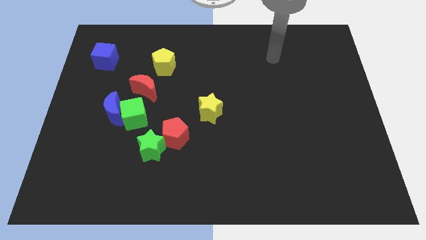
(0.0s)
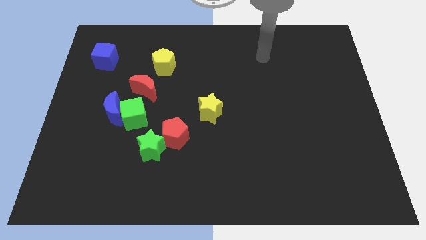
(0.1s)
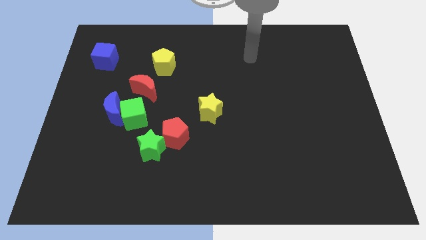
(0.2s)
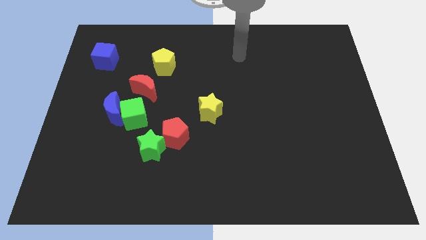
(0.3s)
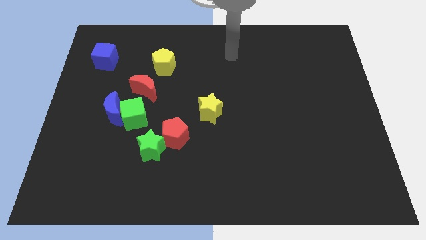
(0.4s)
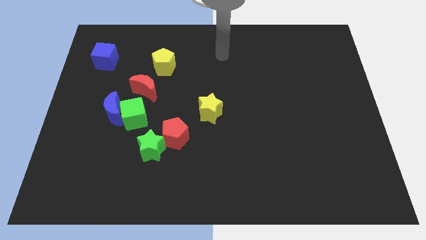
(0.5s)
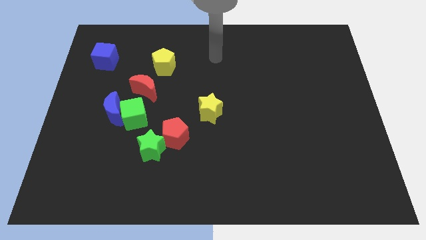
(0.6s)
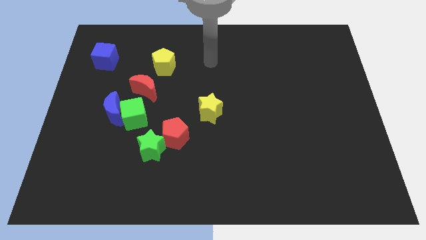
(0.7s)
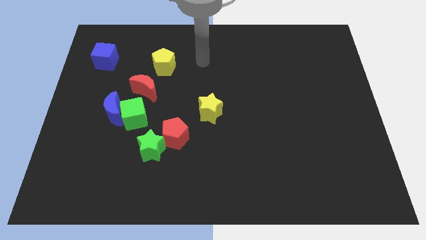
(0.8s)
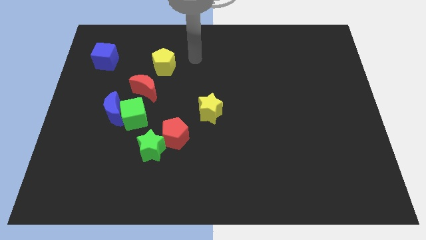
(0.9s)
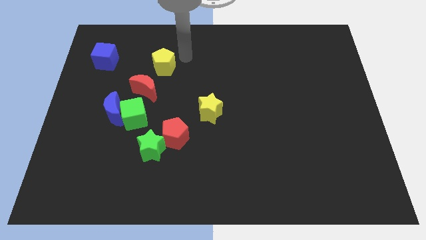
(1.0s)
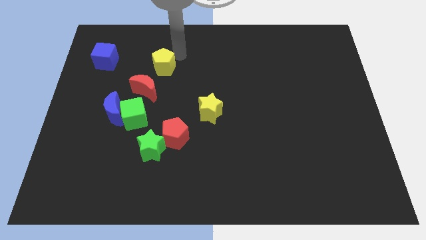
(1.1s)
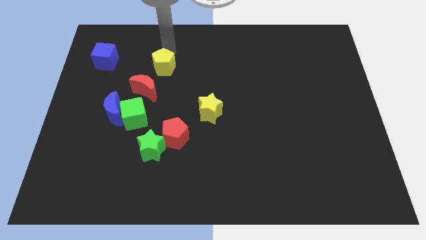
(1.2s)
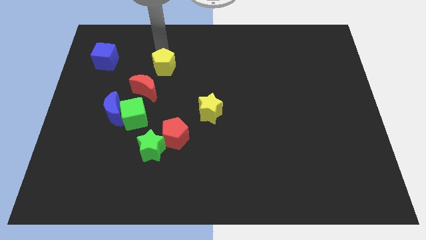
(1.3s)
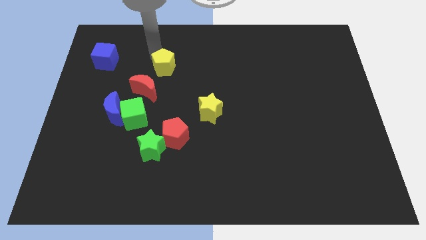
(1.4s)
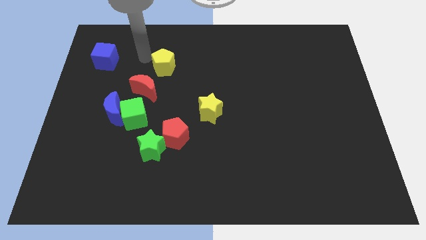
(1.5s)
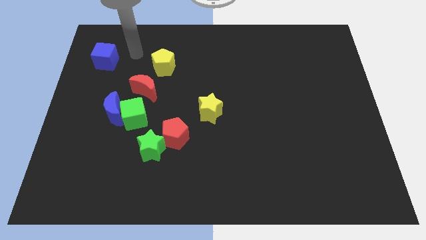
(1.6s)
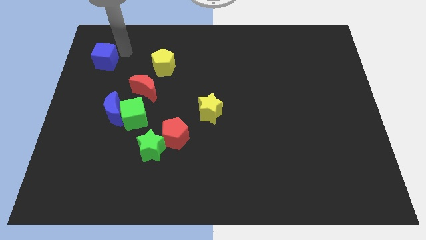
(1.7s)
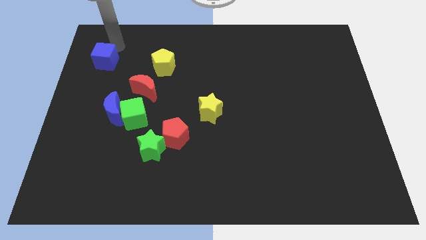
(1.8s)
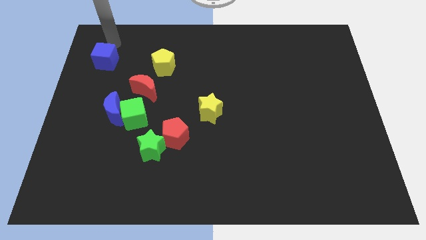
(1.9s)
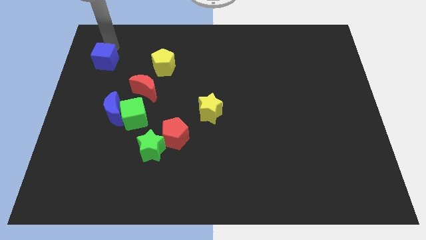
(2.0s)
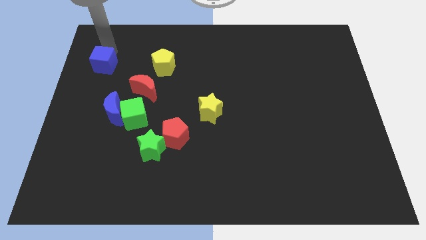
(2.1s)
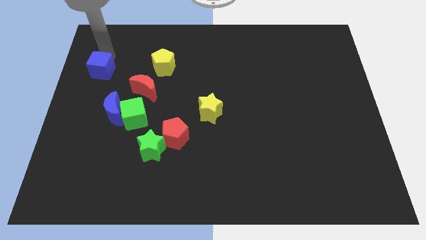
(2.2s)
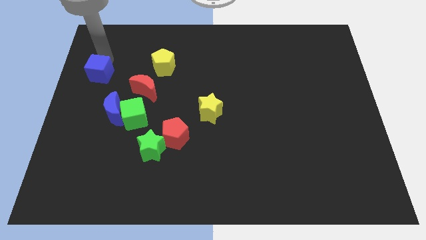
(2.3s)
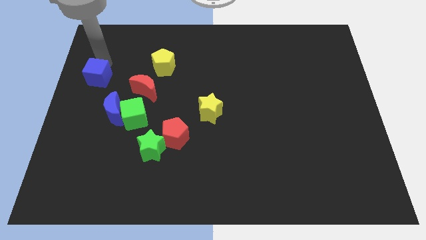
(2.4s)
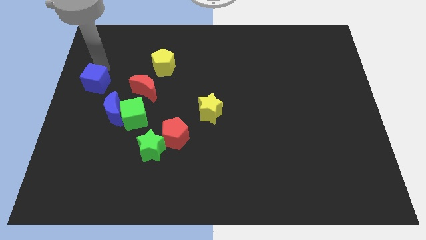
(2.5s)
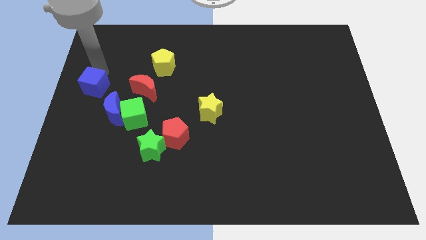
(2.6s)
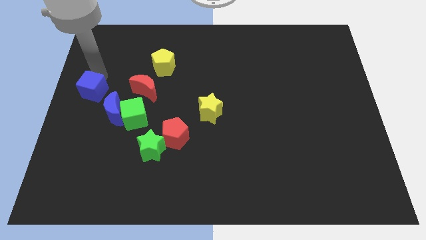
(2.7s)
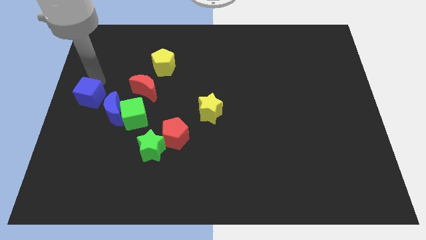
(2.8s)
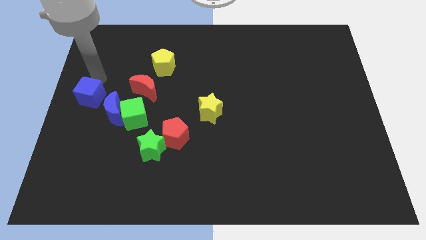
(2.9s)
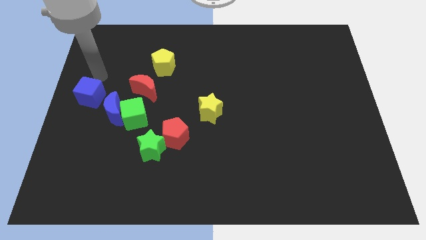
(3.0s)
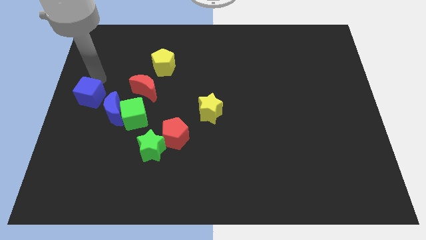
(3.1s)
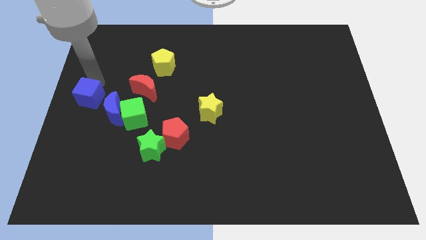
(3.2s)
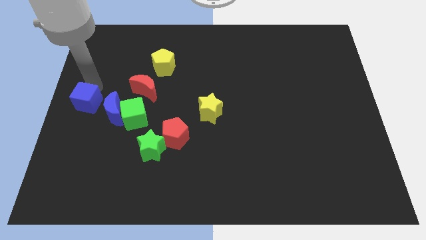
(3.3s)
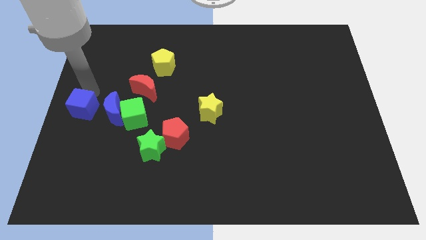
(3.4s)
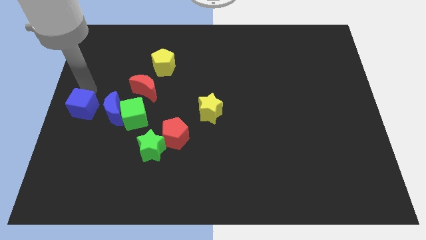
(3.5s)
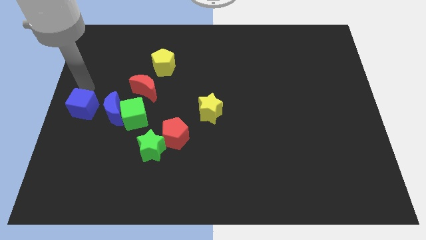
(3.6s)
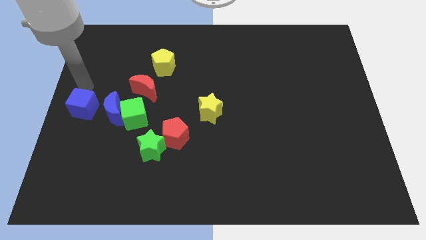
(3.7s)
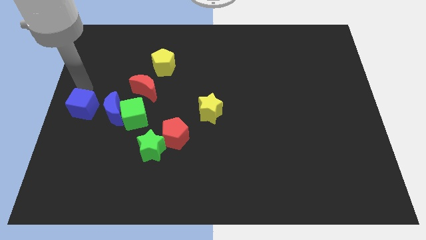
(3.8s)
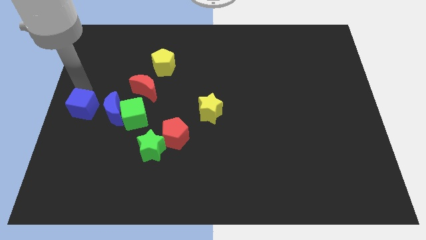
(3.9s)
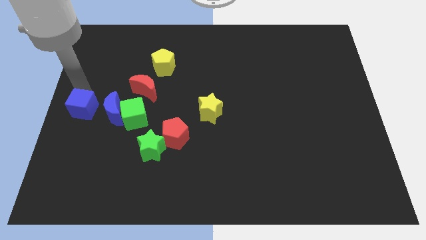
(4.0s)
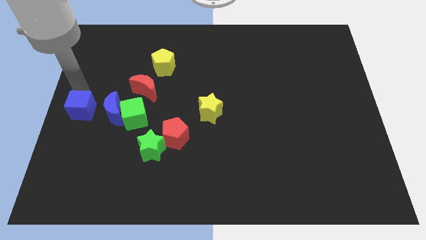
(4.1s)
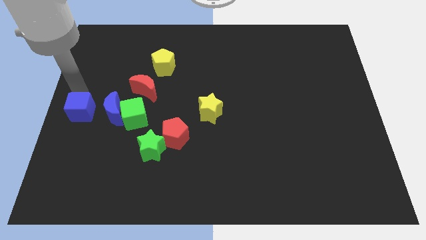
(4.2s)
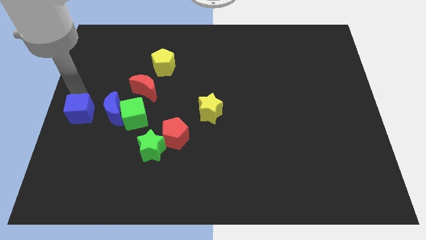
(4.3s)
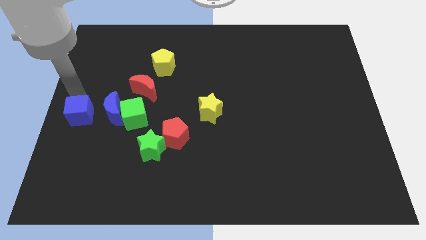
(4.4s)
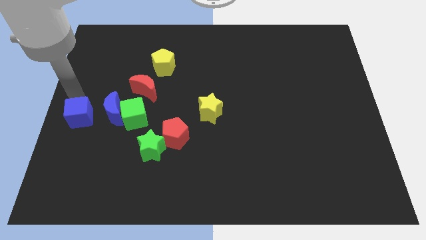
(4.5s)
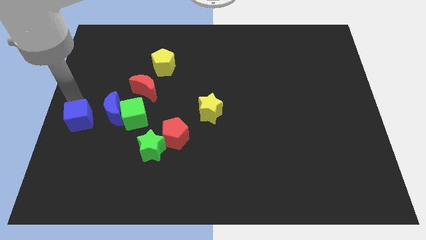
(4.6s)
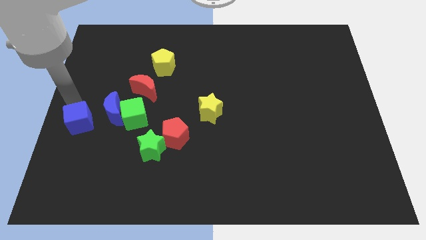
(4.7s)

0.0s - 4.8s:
move the blue cube down

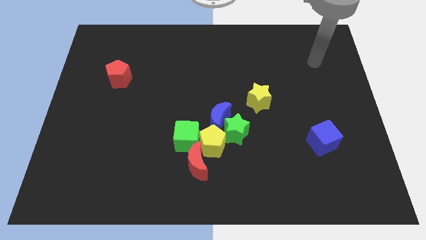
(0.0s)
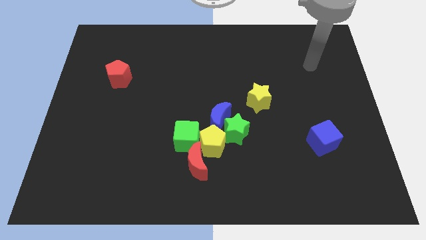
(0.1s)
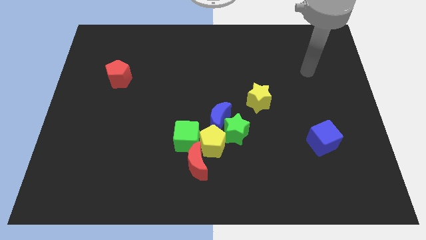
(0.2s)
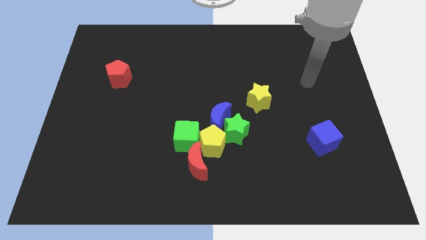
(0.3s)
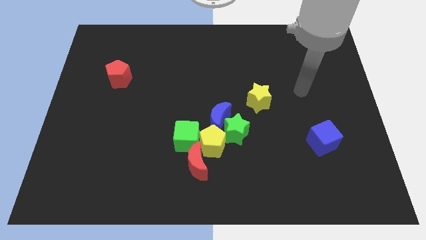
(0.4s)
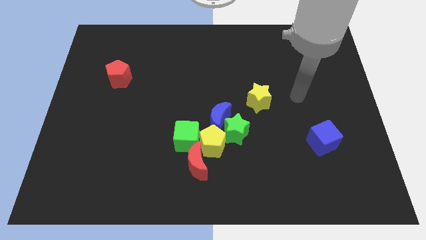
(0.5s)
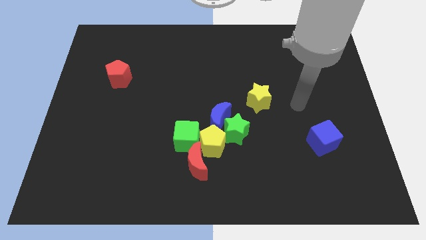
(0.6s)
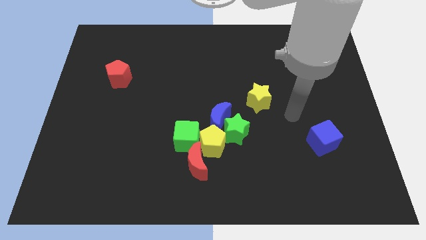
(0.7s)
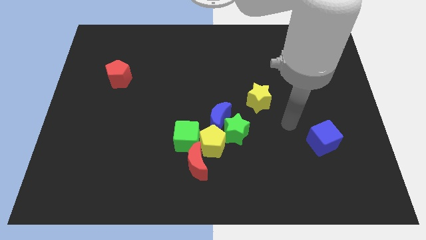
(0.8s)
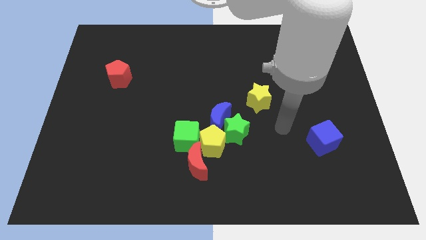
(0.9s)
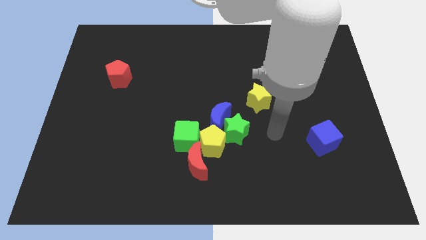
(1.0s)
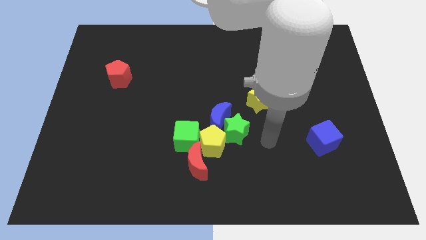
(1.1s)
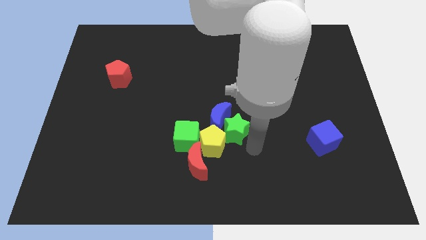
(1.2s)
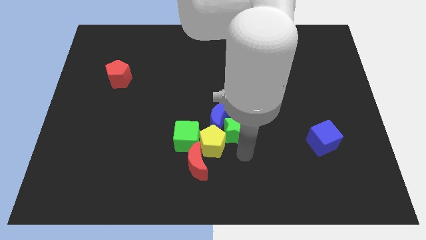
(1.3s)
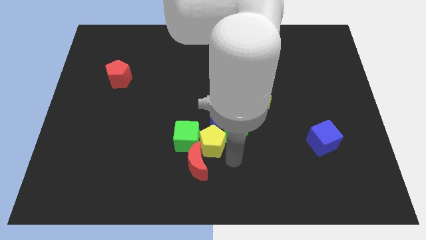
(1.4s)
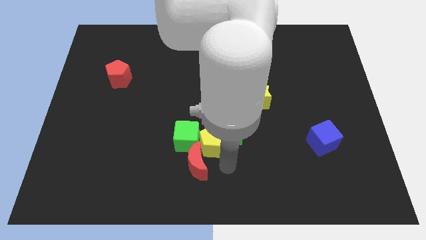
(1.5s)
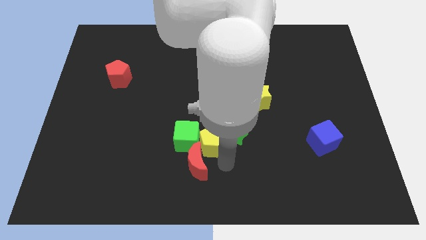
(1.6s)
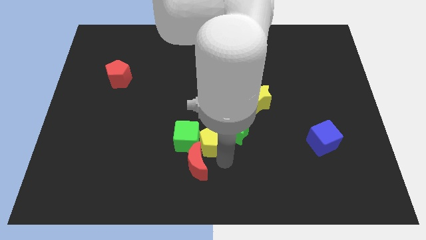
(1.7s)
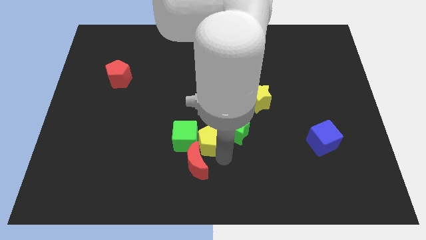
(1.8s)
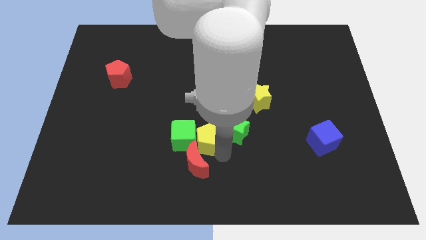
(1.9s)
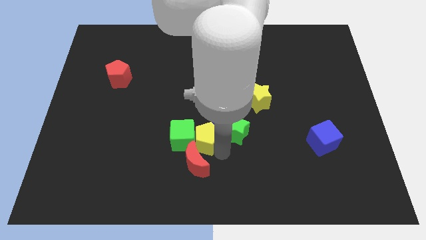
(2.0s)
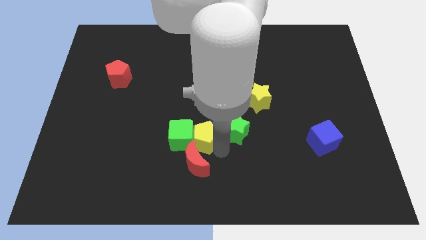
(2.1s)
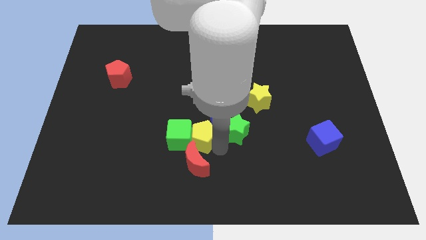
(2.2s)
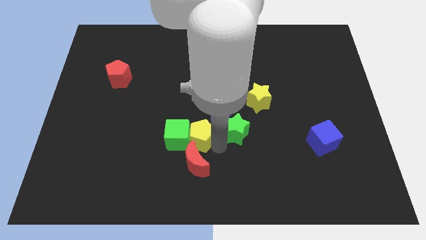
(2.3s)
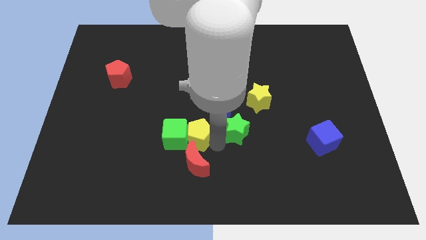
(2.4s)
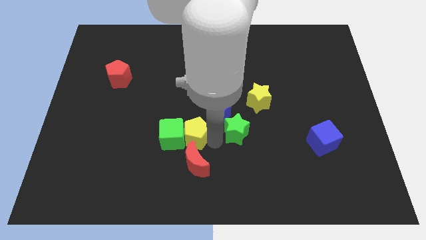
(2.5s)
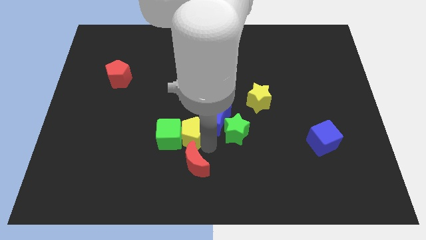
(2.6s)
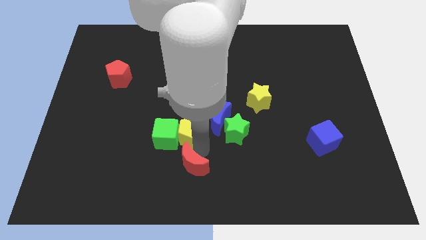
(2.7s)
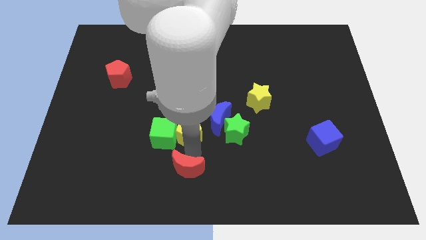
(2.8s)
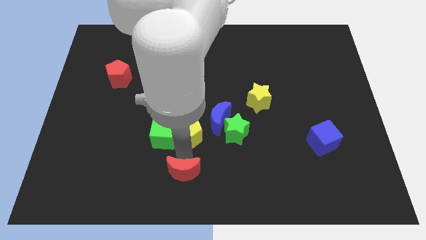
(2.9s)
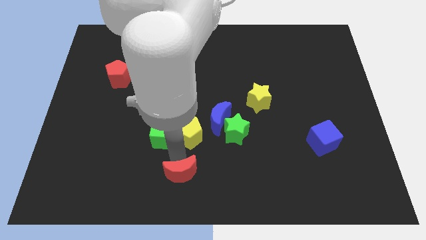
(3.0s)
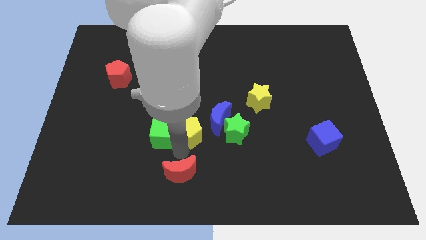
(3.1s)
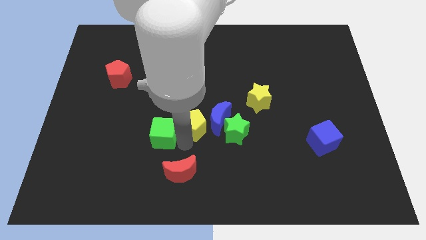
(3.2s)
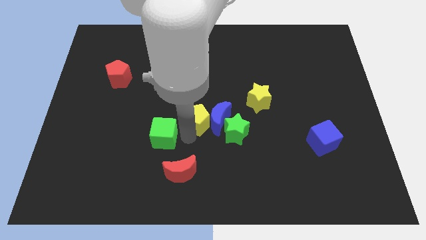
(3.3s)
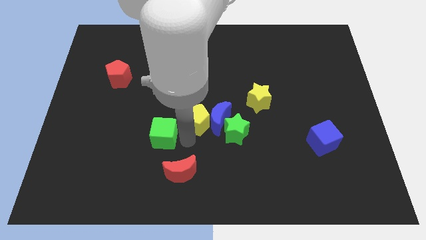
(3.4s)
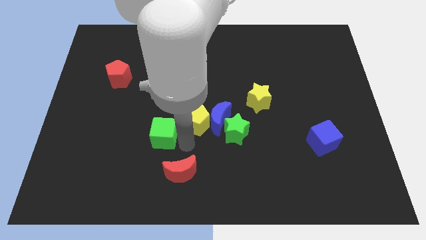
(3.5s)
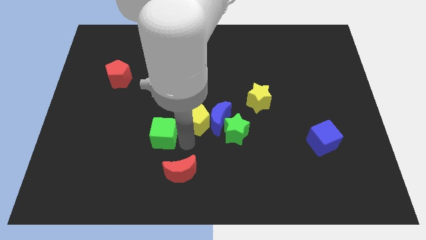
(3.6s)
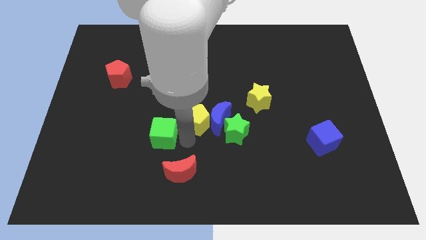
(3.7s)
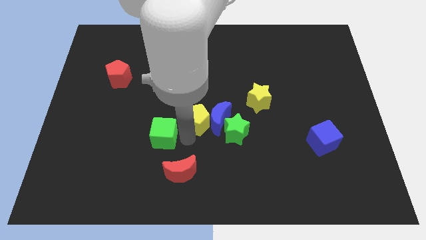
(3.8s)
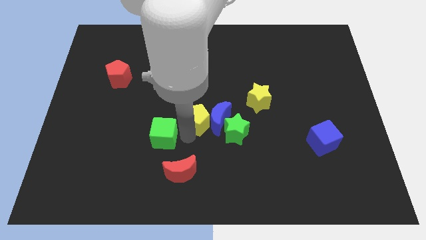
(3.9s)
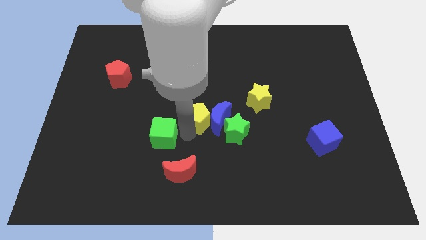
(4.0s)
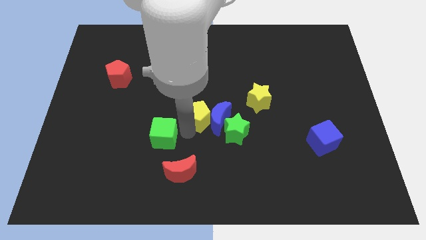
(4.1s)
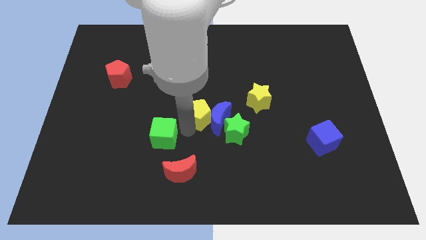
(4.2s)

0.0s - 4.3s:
slightly slide the yellow pentagon upwards
